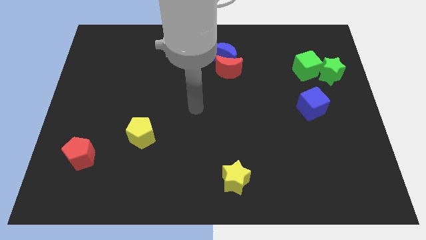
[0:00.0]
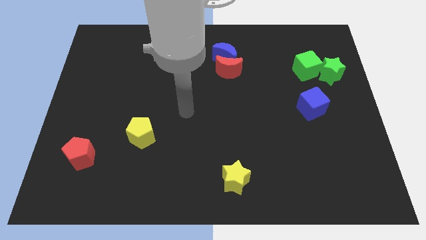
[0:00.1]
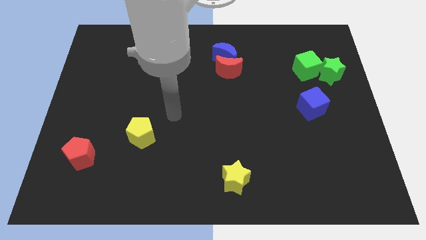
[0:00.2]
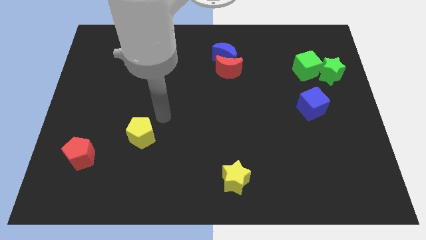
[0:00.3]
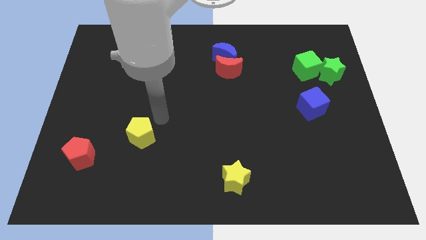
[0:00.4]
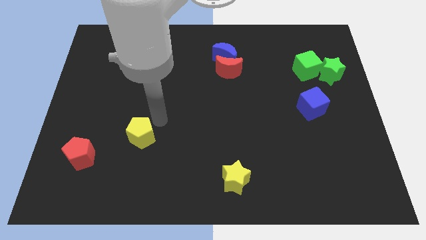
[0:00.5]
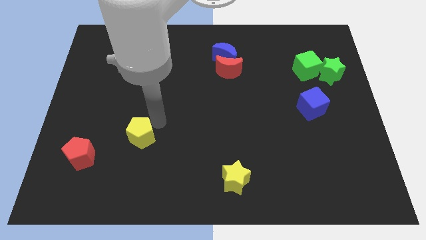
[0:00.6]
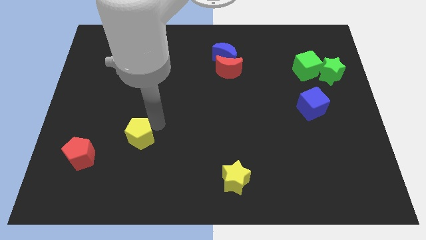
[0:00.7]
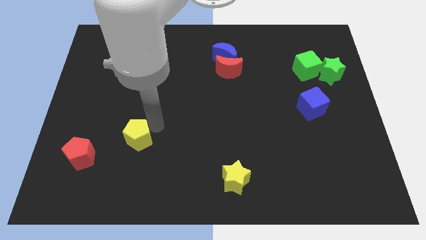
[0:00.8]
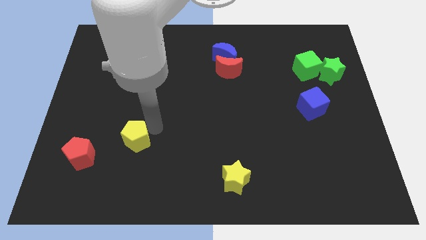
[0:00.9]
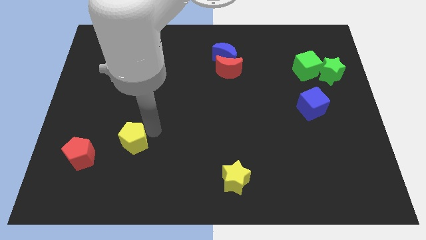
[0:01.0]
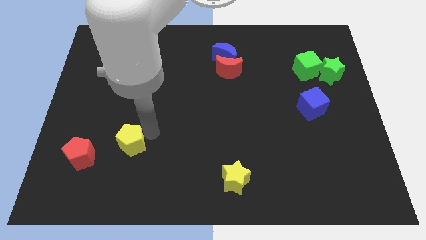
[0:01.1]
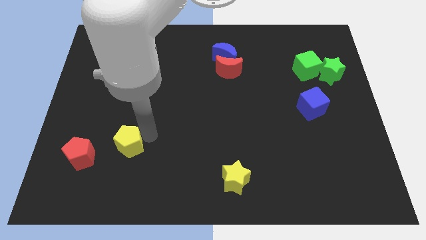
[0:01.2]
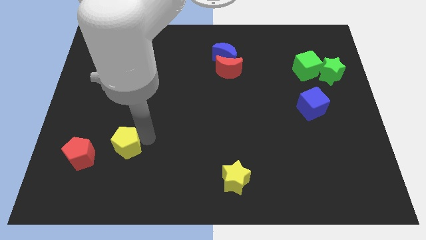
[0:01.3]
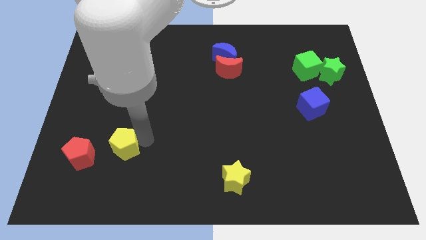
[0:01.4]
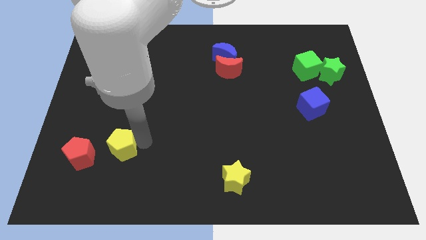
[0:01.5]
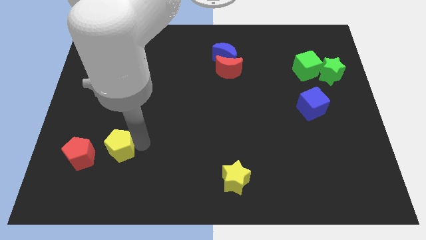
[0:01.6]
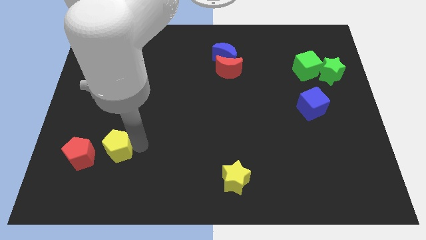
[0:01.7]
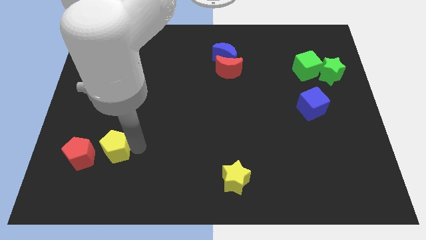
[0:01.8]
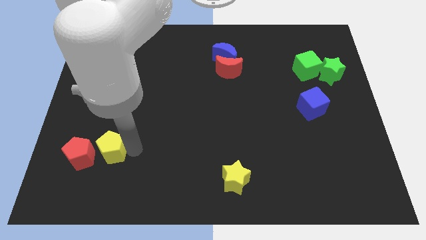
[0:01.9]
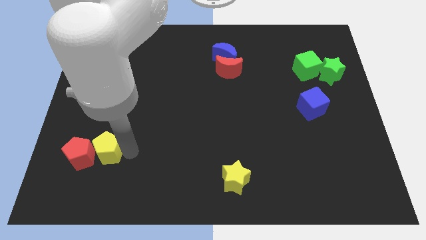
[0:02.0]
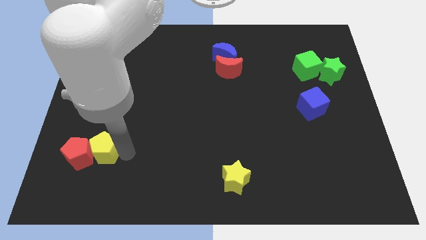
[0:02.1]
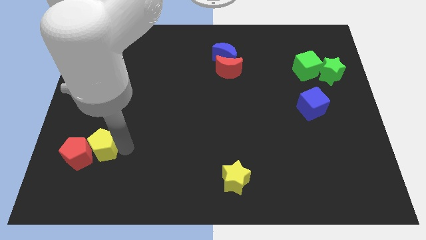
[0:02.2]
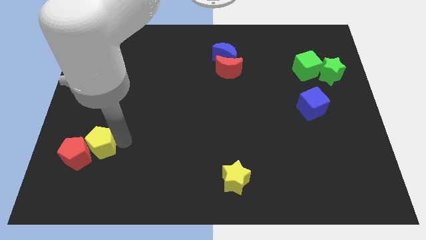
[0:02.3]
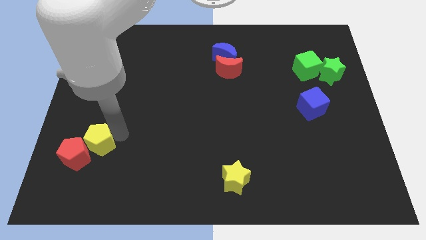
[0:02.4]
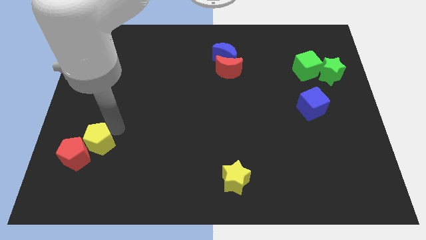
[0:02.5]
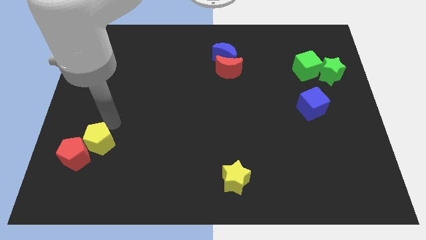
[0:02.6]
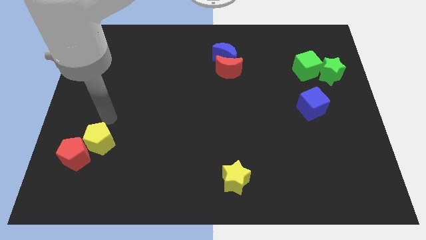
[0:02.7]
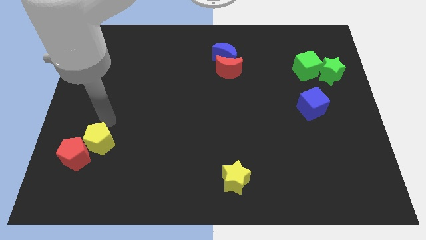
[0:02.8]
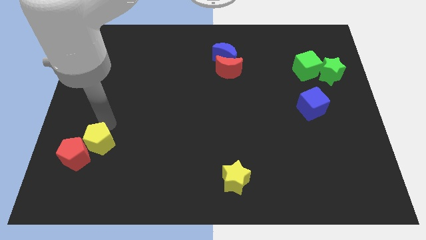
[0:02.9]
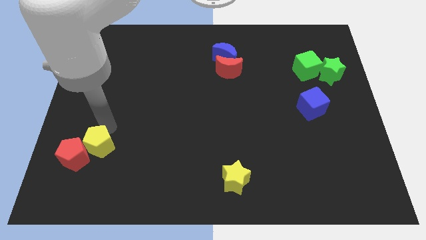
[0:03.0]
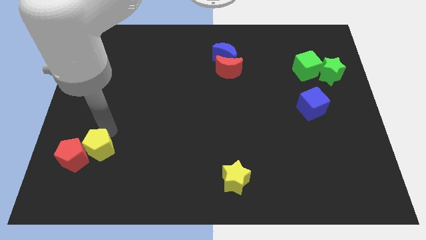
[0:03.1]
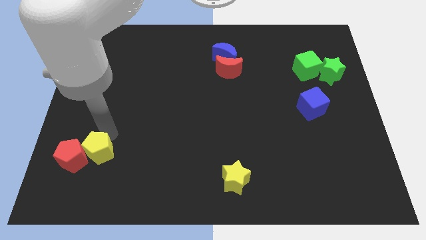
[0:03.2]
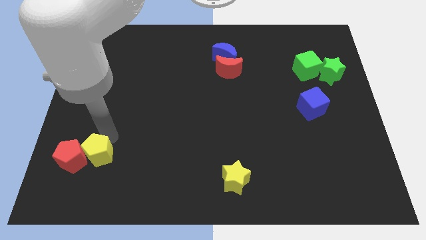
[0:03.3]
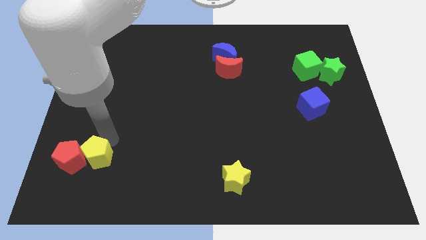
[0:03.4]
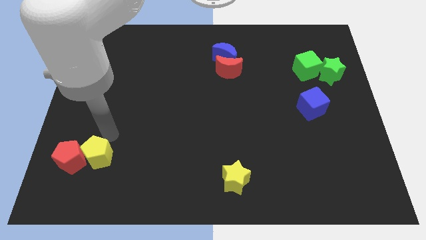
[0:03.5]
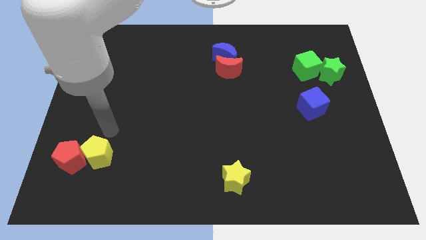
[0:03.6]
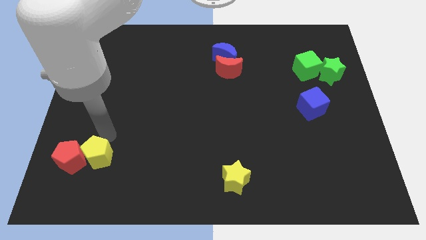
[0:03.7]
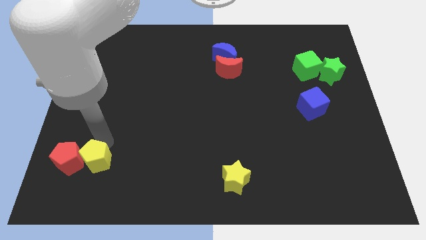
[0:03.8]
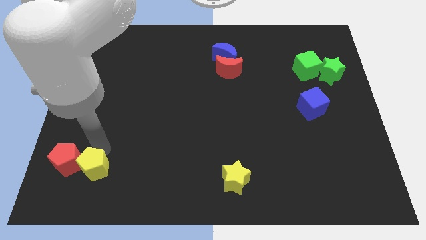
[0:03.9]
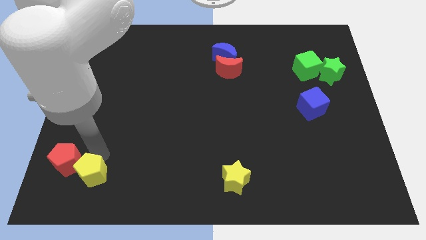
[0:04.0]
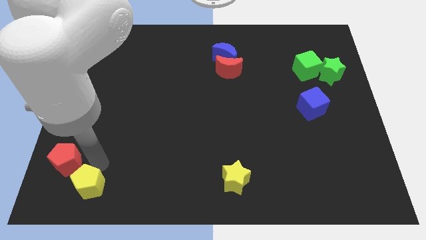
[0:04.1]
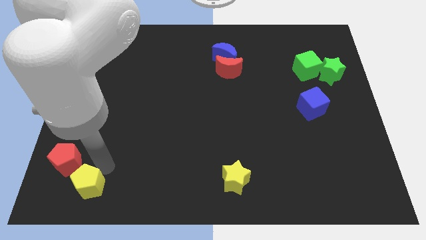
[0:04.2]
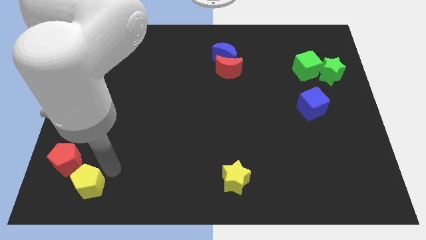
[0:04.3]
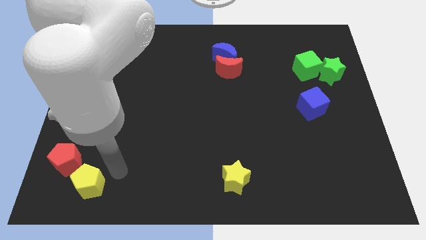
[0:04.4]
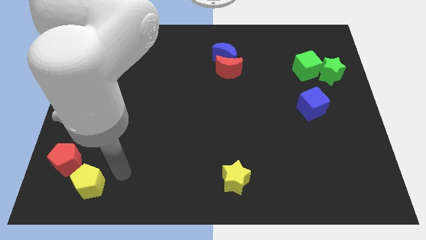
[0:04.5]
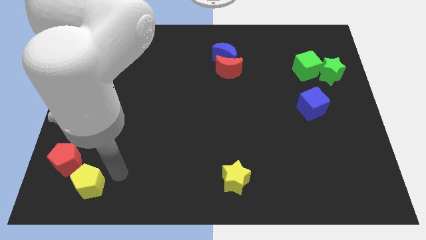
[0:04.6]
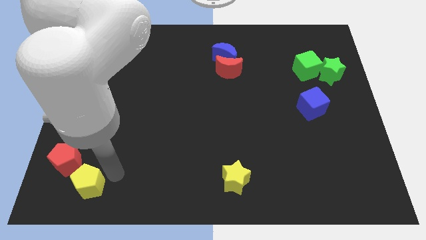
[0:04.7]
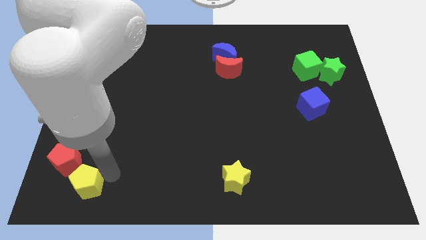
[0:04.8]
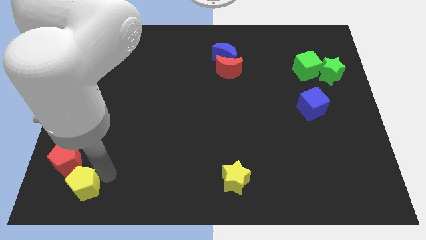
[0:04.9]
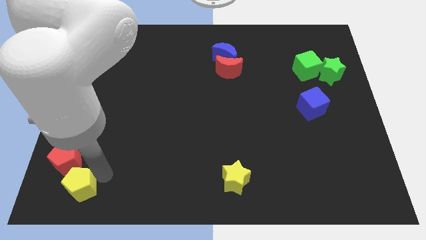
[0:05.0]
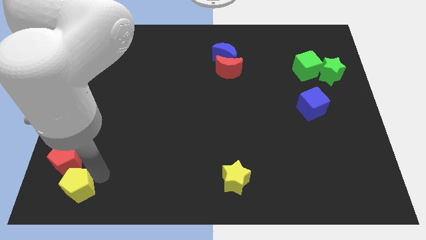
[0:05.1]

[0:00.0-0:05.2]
move the yellow pentagon to the bottom left of the board

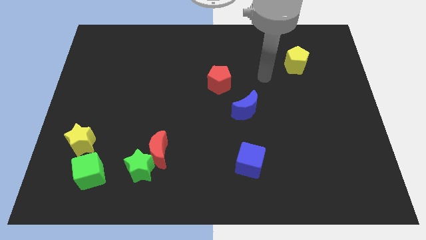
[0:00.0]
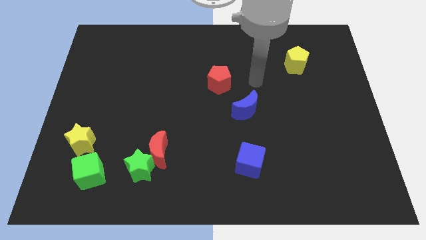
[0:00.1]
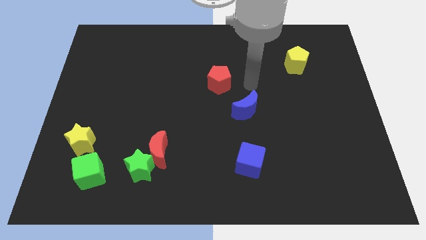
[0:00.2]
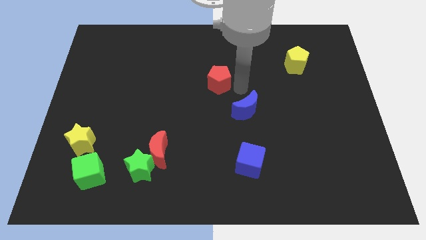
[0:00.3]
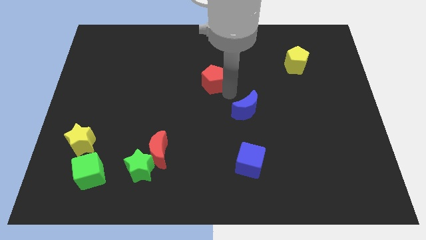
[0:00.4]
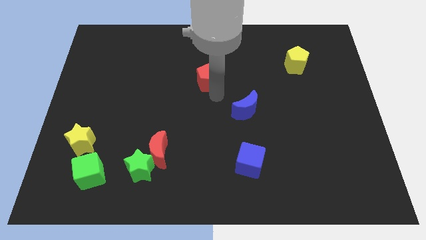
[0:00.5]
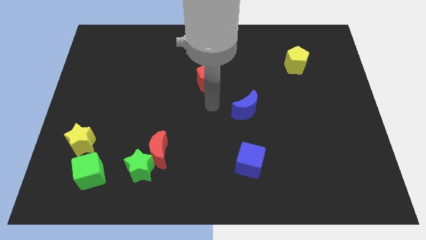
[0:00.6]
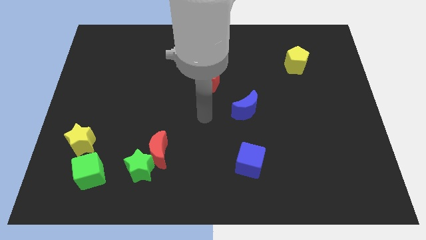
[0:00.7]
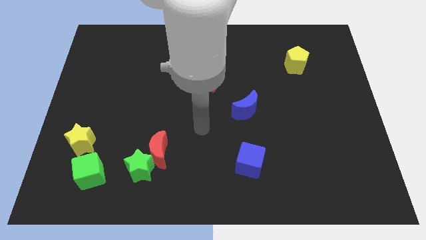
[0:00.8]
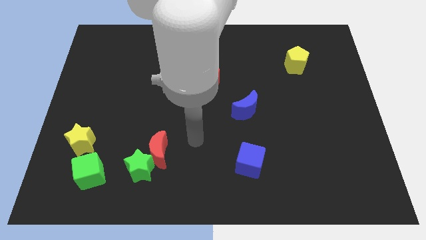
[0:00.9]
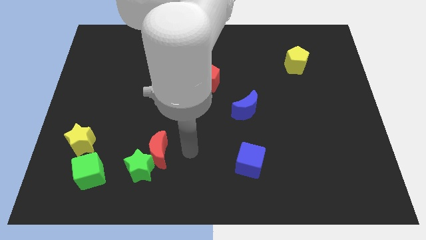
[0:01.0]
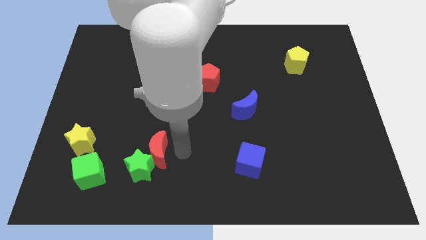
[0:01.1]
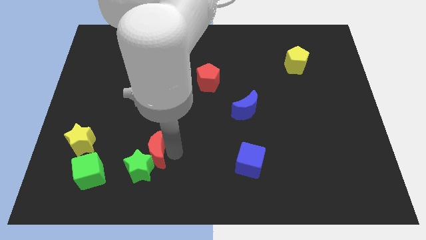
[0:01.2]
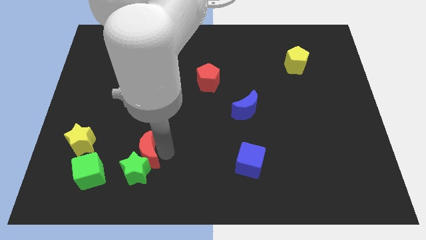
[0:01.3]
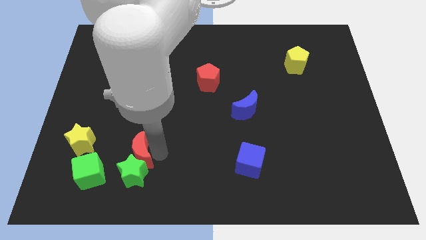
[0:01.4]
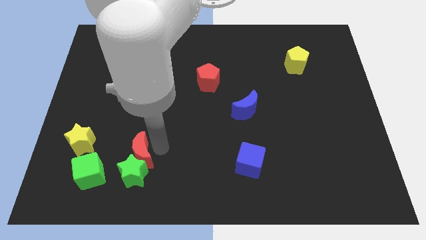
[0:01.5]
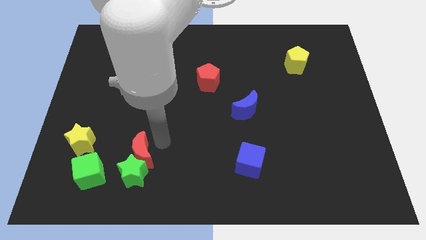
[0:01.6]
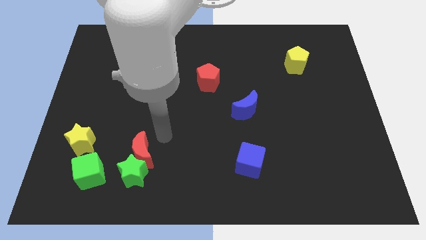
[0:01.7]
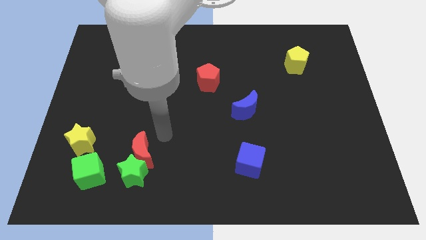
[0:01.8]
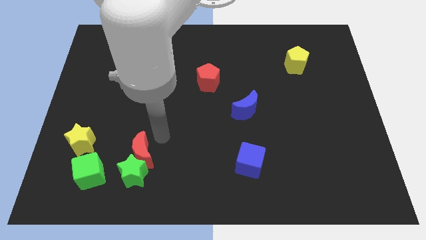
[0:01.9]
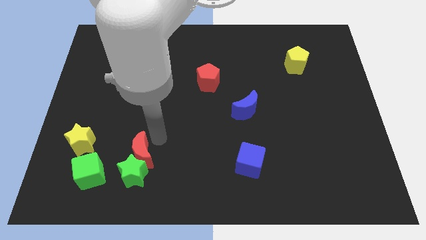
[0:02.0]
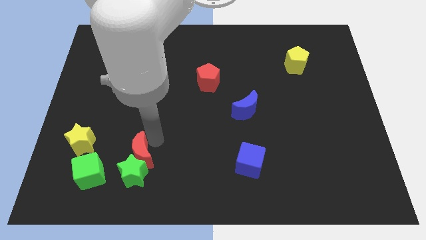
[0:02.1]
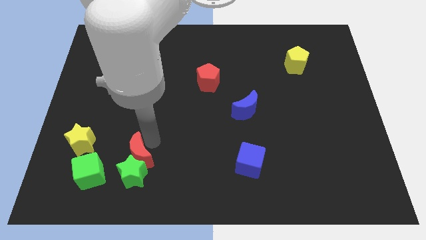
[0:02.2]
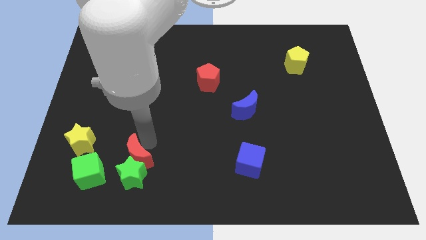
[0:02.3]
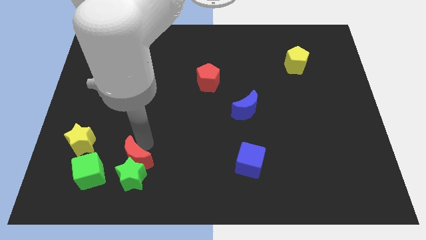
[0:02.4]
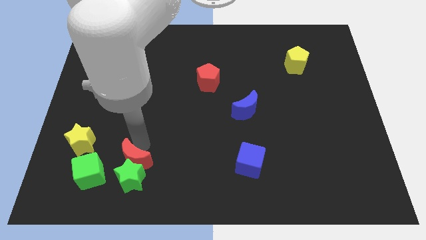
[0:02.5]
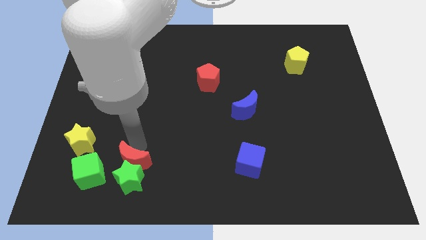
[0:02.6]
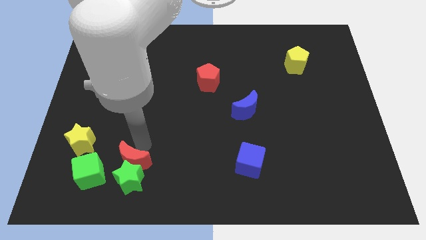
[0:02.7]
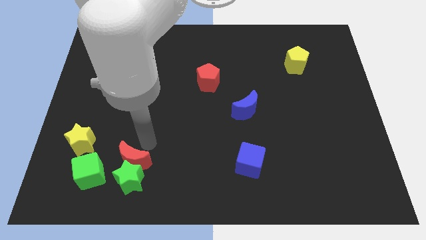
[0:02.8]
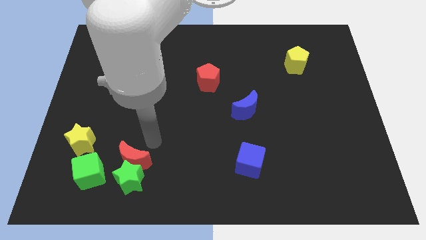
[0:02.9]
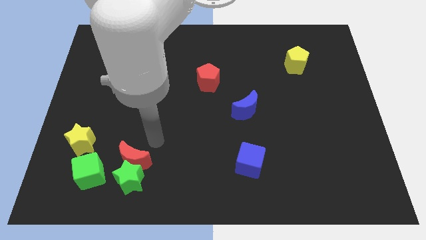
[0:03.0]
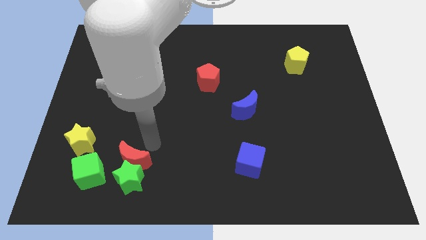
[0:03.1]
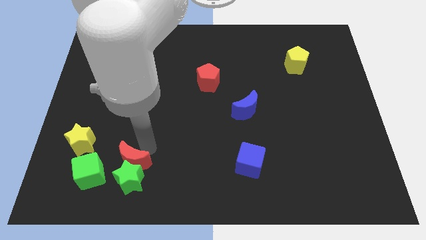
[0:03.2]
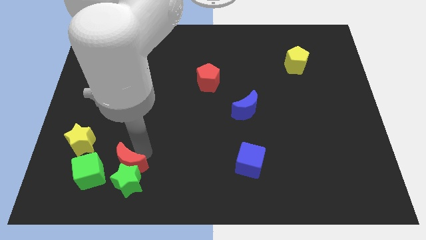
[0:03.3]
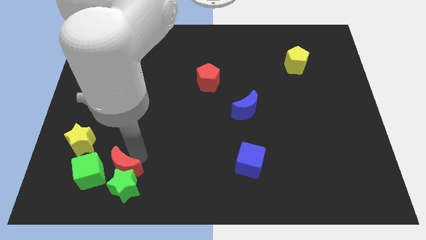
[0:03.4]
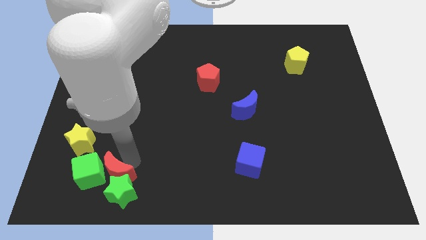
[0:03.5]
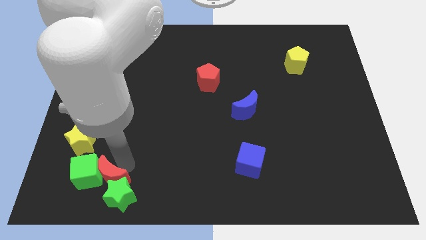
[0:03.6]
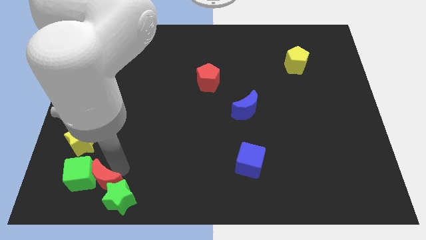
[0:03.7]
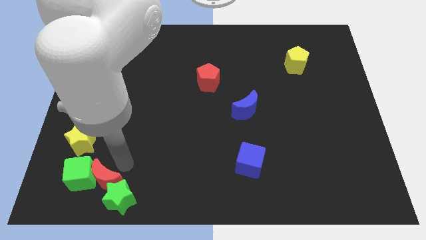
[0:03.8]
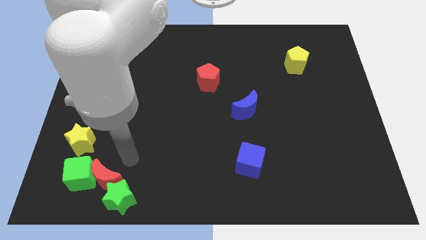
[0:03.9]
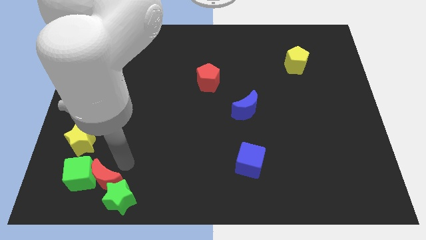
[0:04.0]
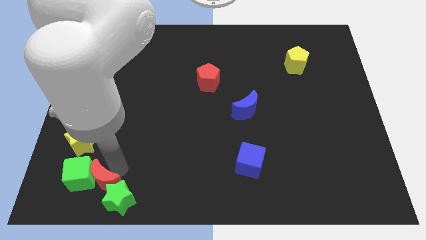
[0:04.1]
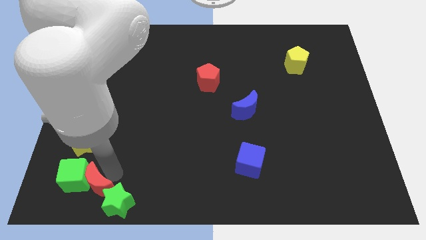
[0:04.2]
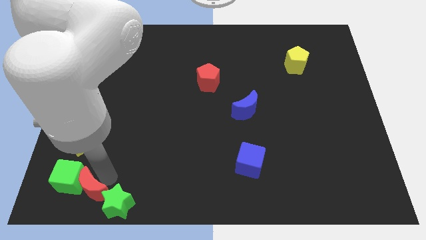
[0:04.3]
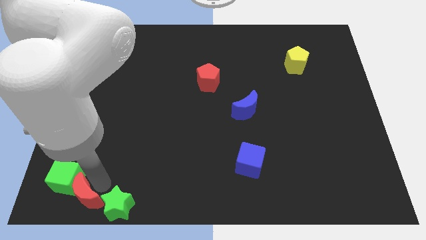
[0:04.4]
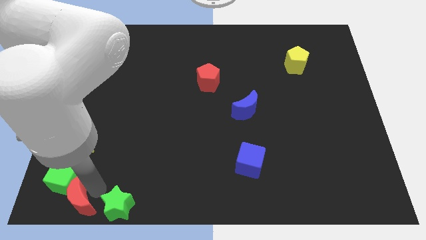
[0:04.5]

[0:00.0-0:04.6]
put the red moon to the bottom left of the board
